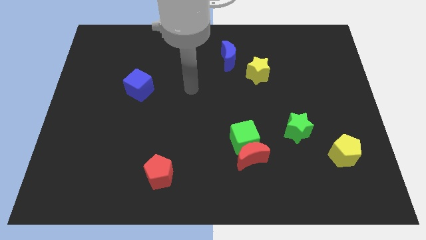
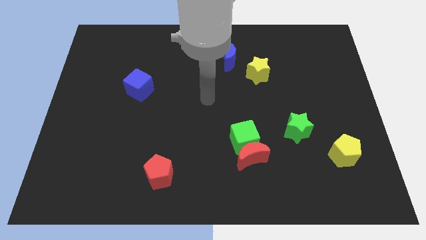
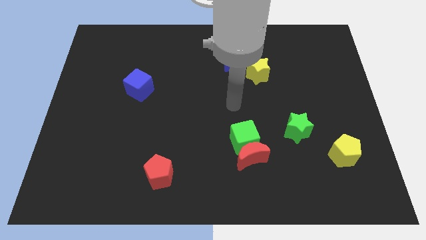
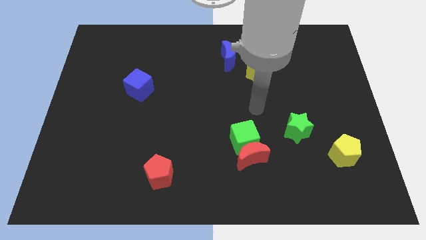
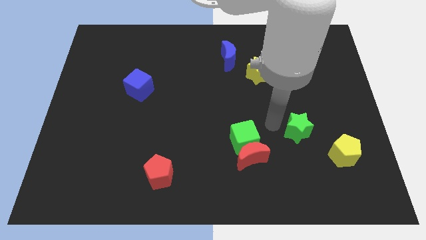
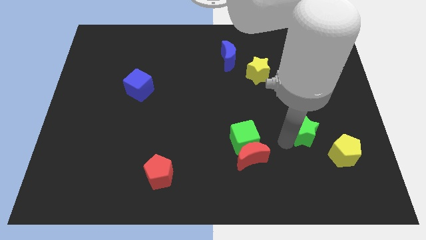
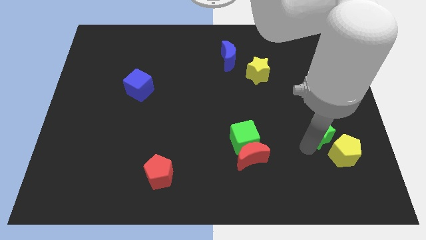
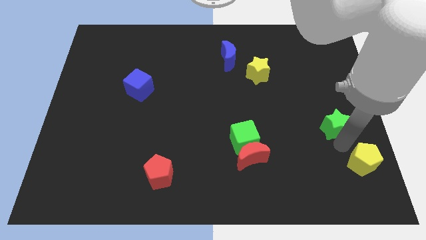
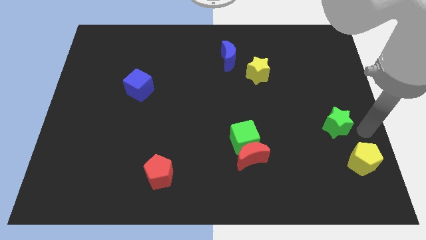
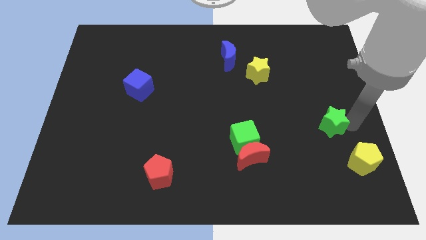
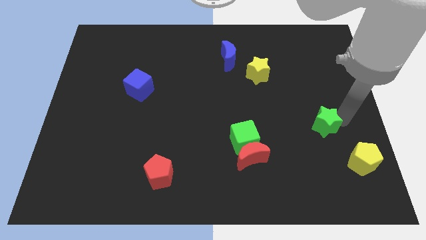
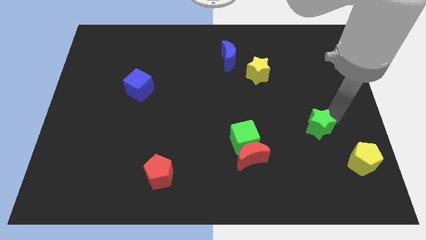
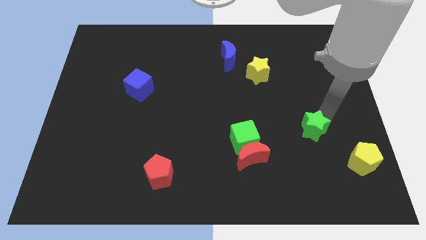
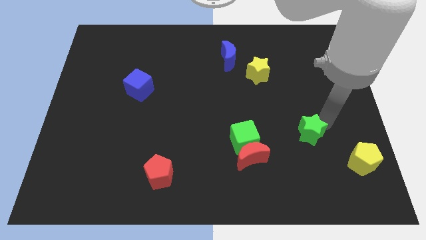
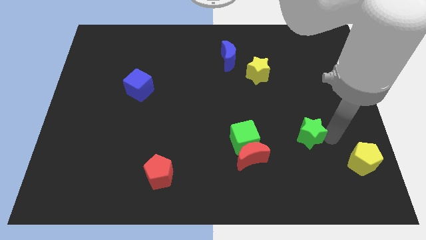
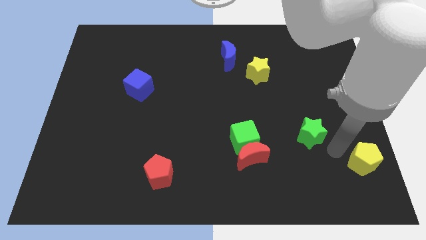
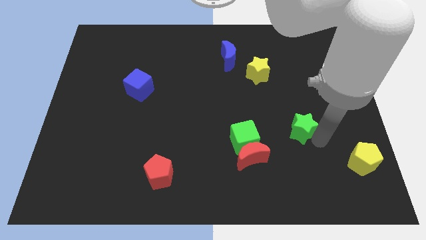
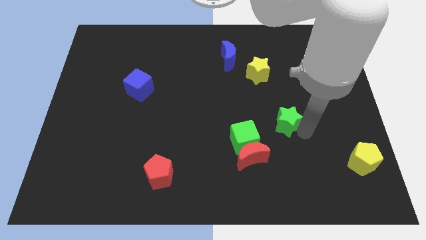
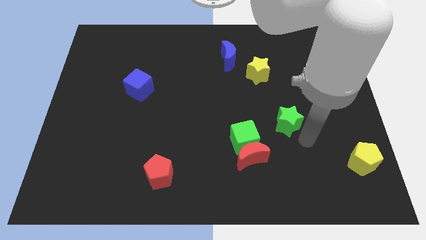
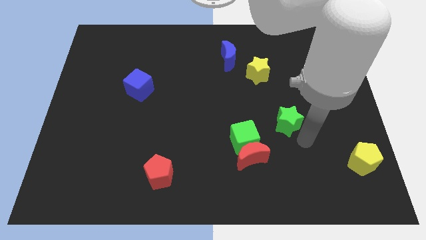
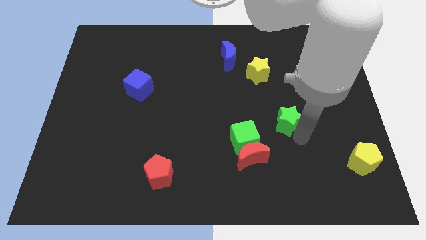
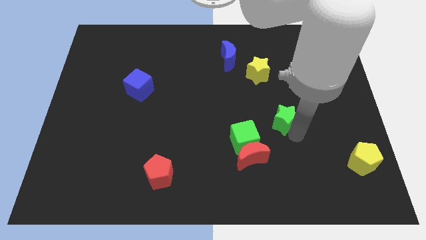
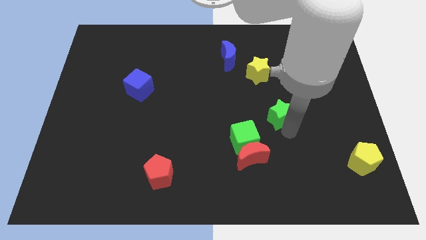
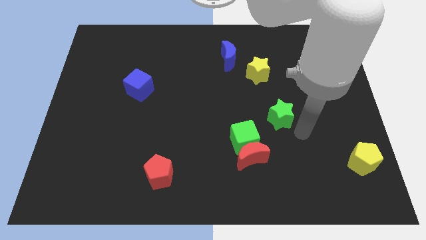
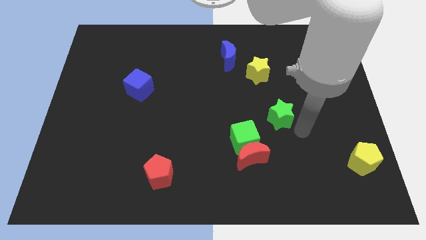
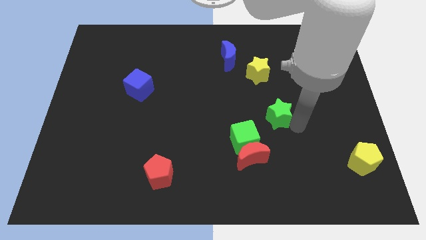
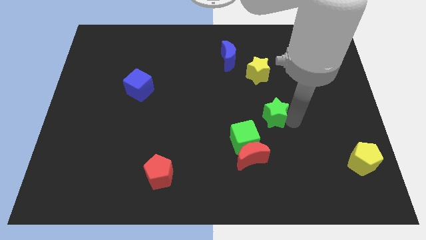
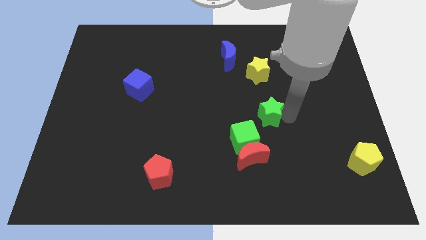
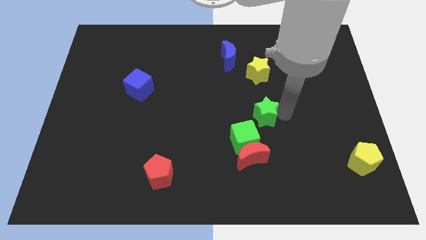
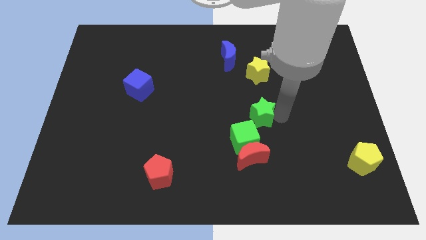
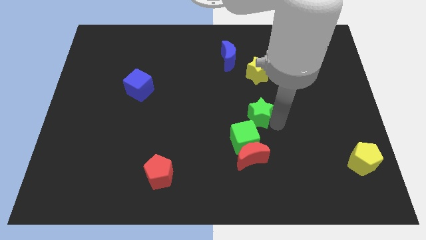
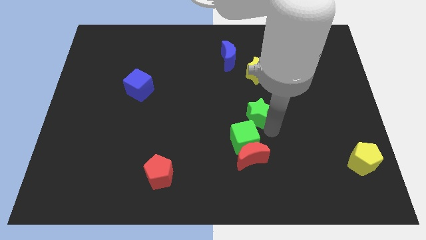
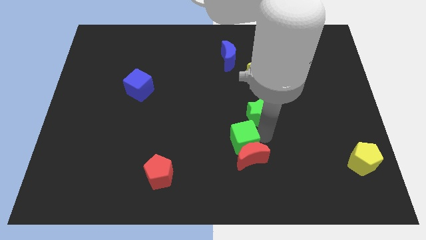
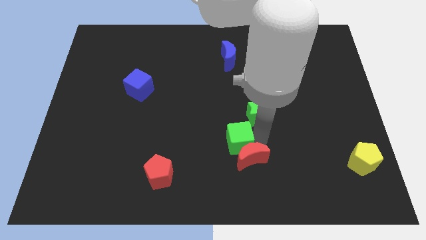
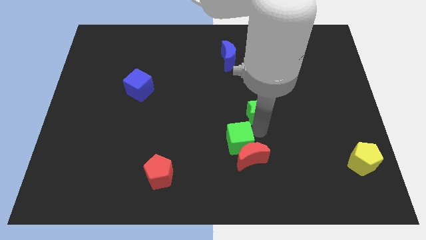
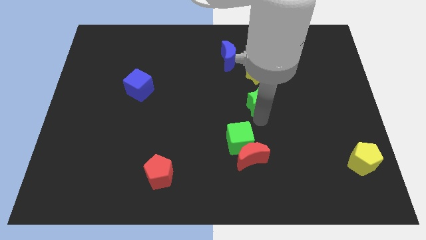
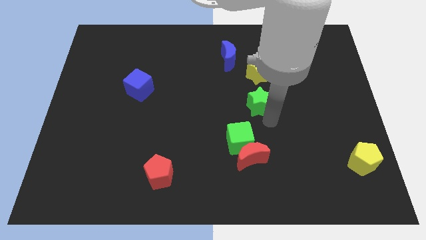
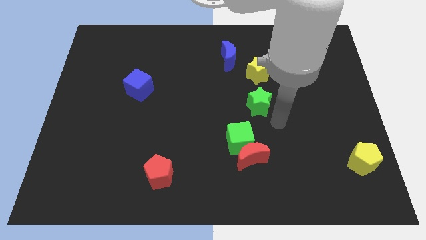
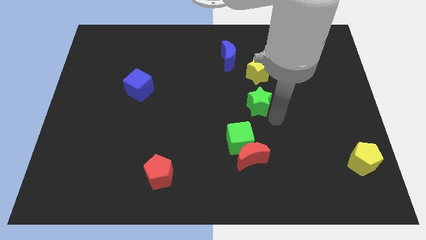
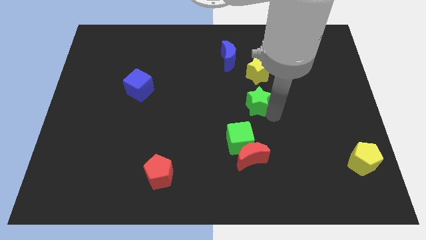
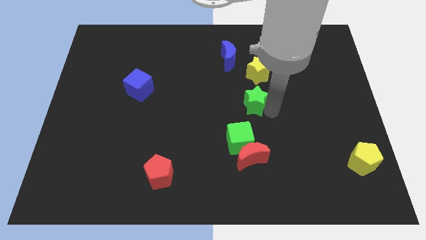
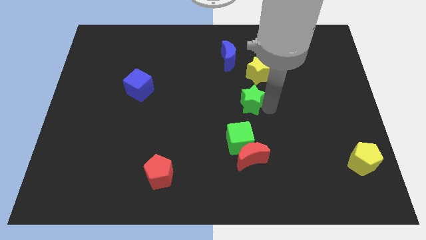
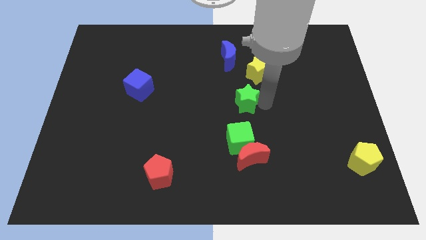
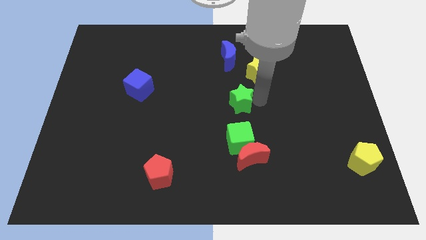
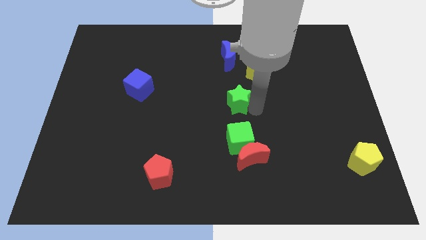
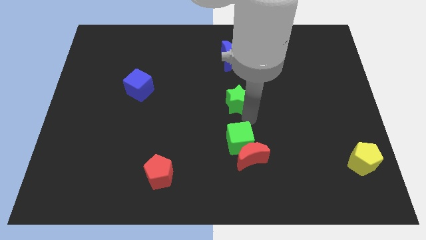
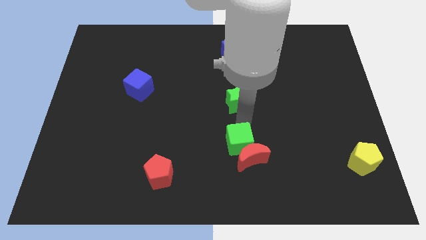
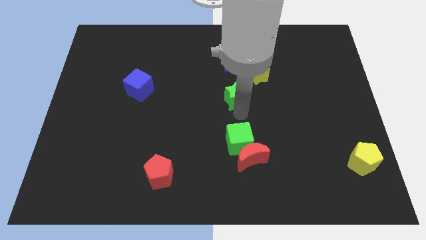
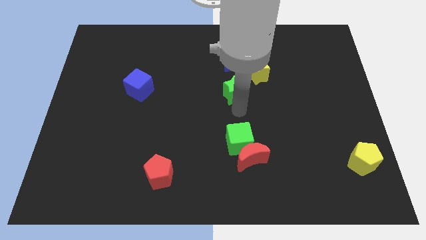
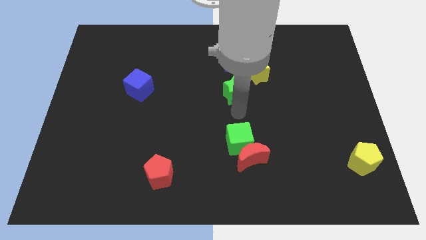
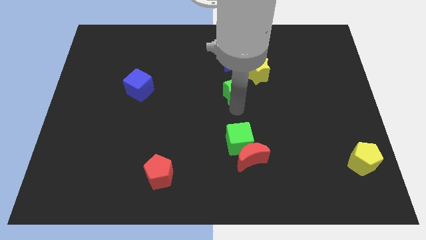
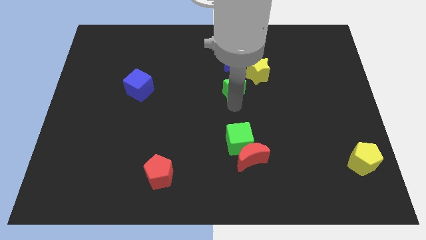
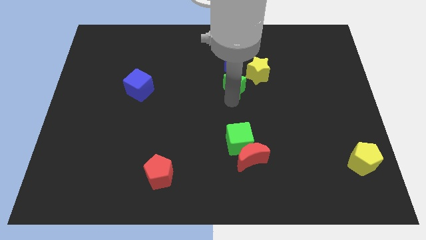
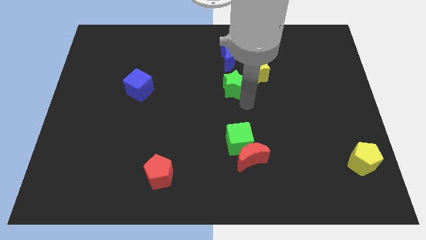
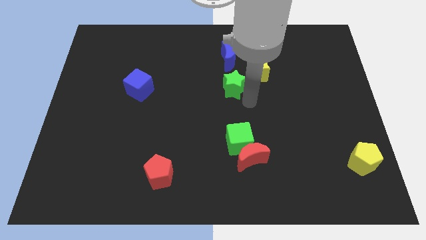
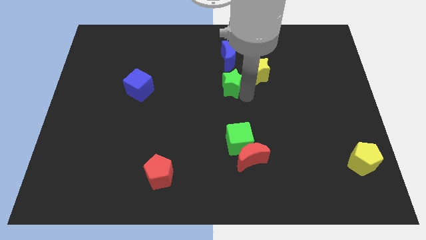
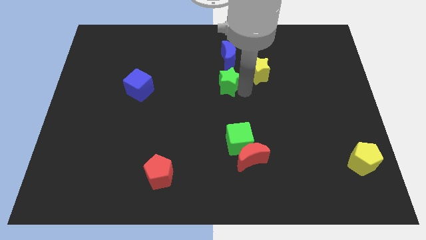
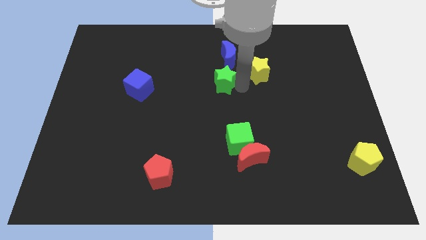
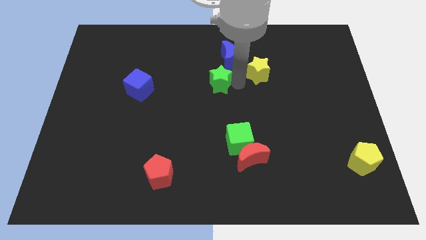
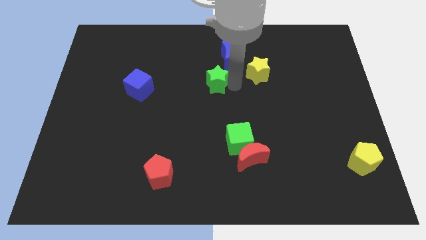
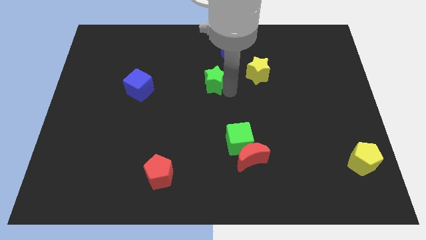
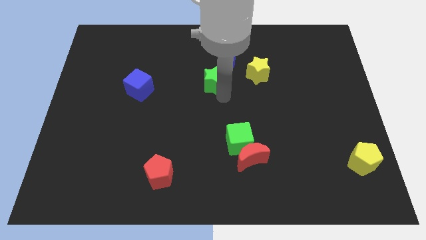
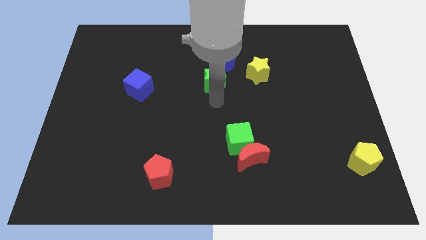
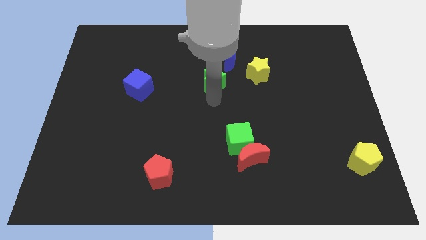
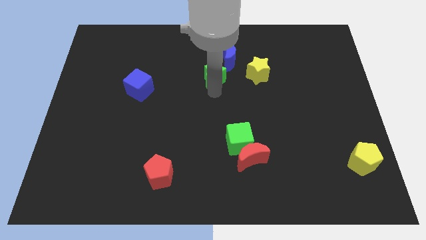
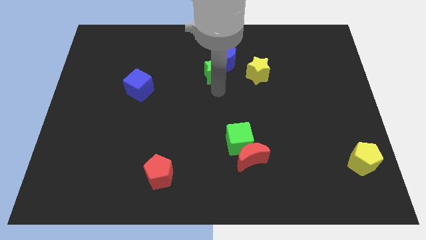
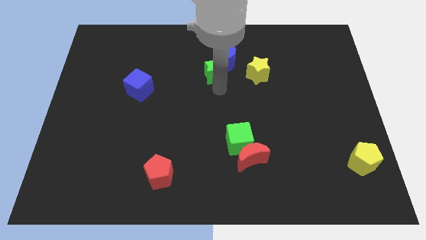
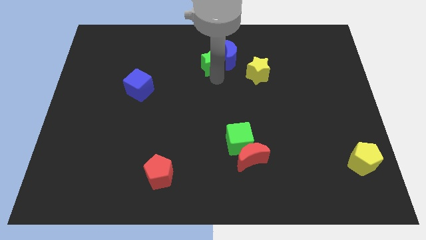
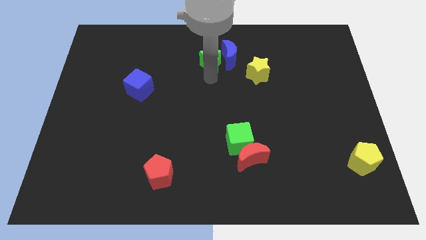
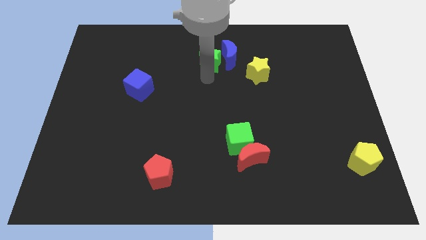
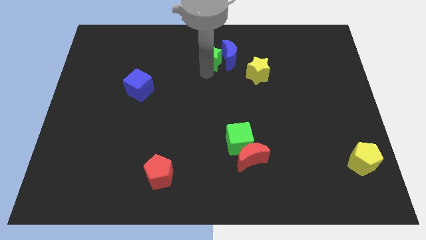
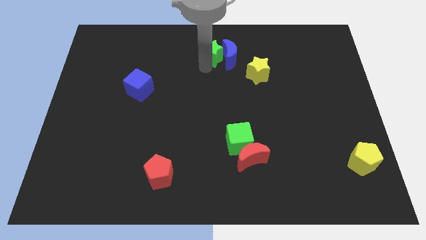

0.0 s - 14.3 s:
put the green star to the towards your base
